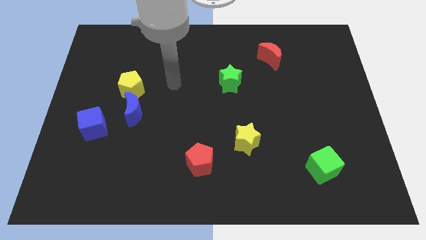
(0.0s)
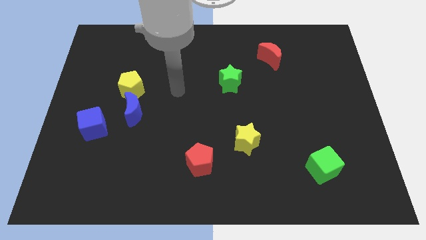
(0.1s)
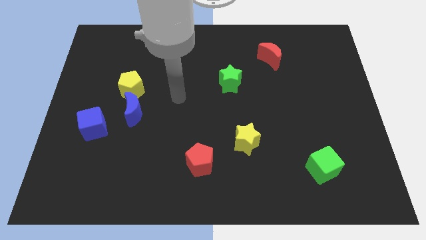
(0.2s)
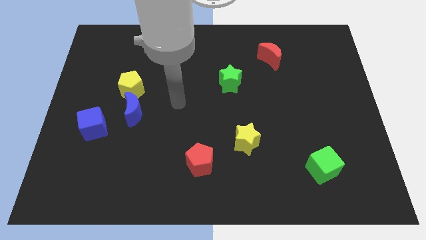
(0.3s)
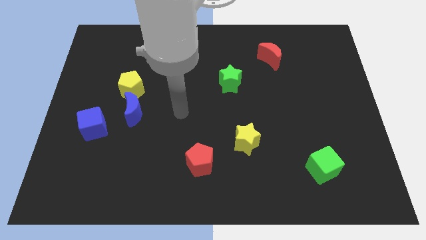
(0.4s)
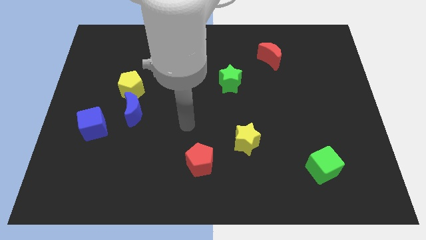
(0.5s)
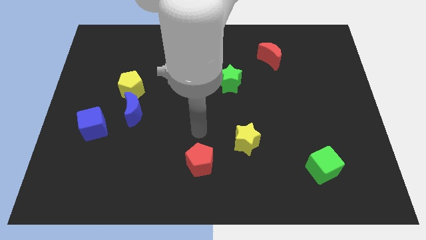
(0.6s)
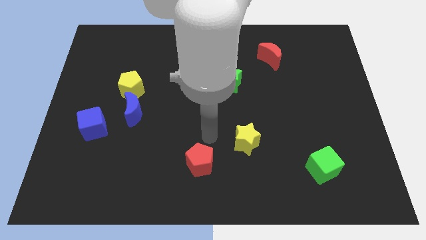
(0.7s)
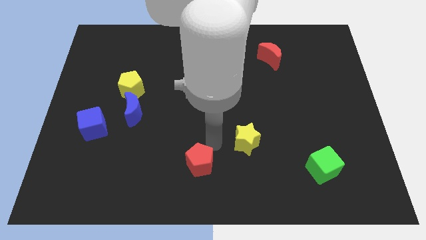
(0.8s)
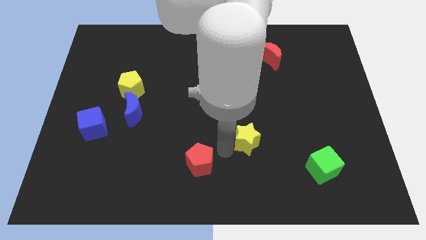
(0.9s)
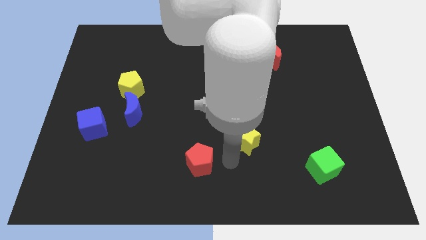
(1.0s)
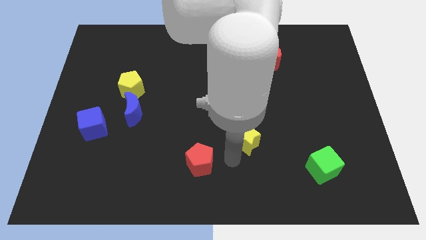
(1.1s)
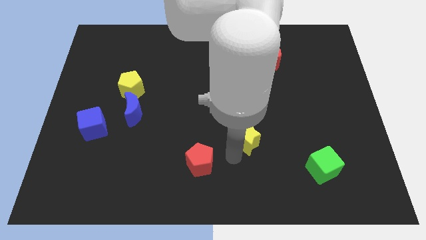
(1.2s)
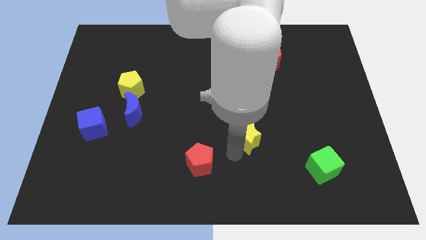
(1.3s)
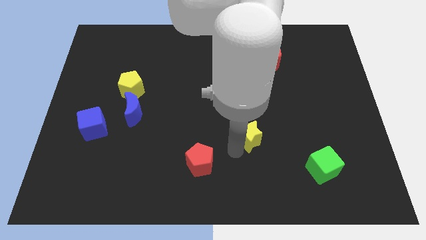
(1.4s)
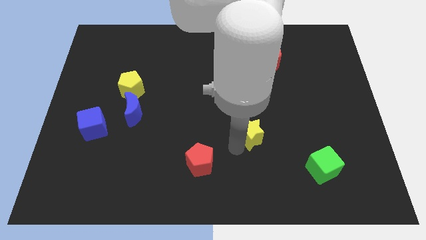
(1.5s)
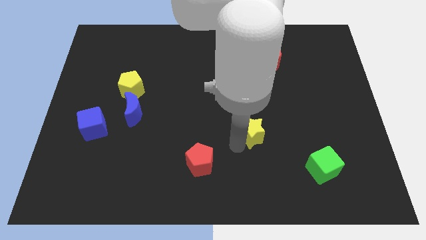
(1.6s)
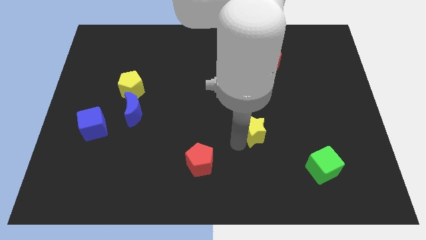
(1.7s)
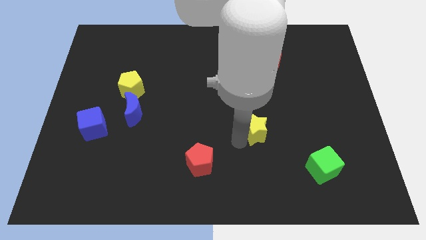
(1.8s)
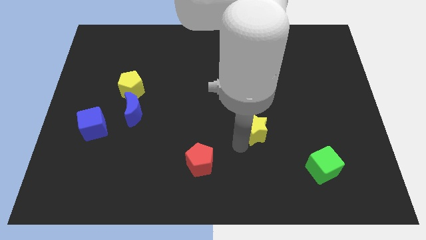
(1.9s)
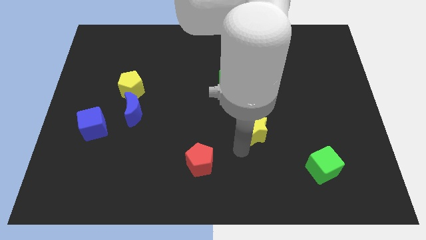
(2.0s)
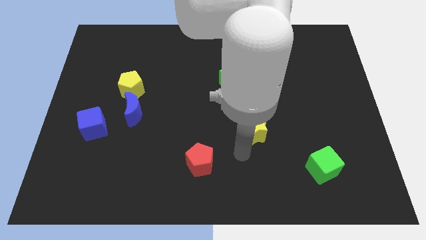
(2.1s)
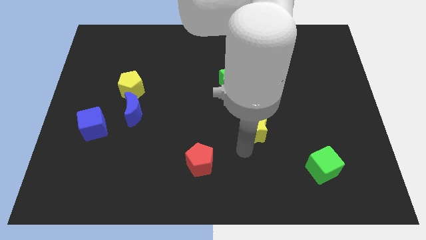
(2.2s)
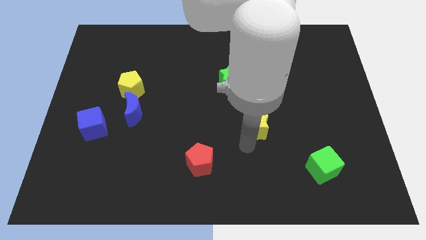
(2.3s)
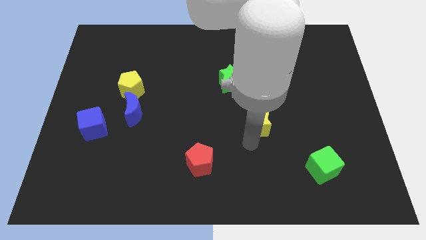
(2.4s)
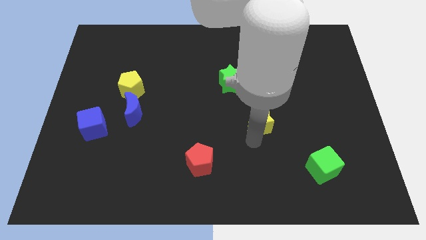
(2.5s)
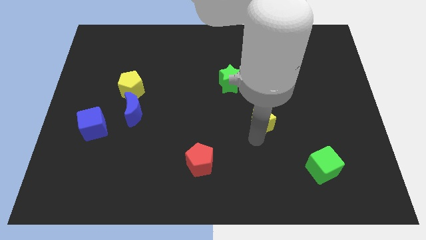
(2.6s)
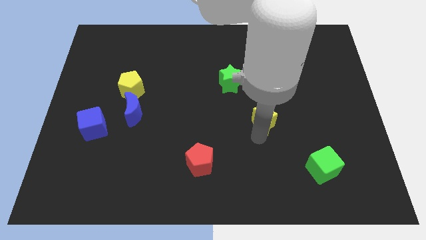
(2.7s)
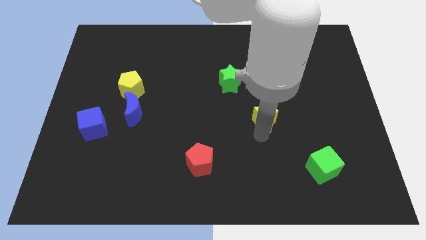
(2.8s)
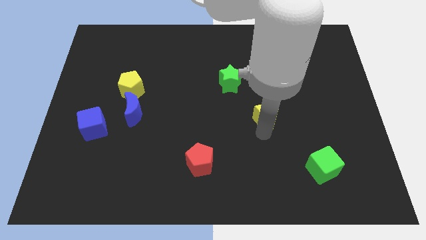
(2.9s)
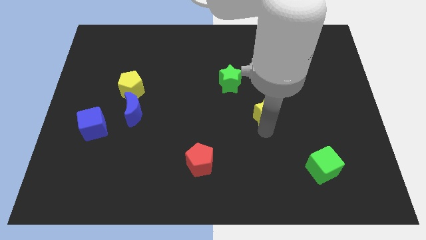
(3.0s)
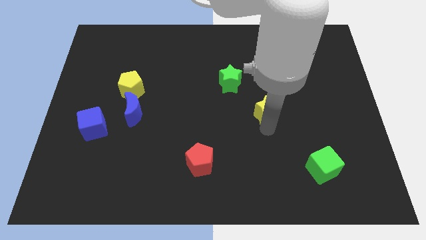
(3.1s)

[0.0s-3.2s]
slide the yellow star up somewhat

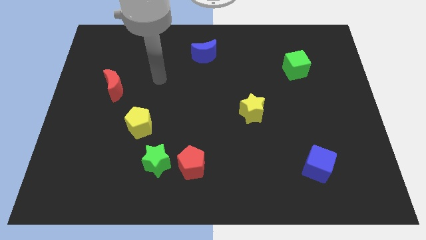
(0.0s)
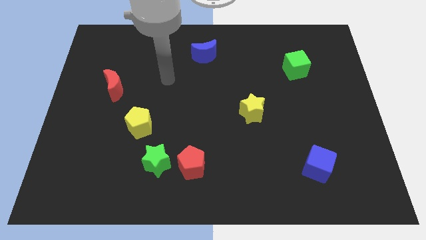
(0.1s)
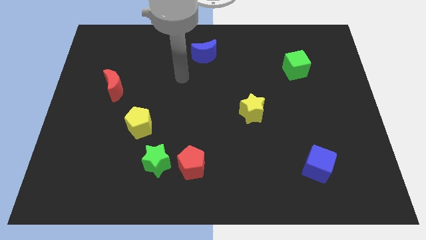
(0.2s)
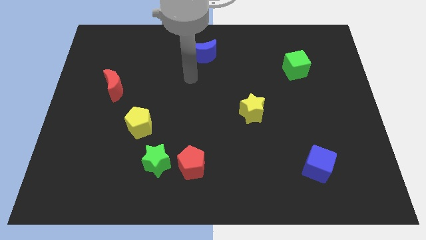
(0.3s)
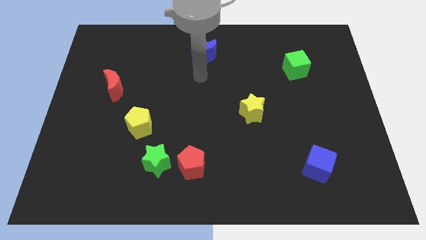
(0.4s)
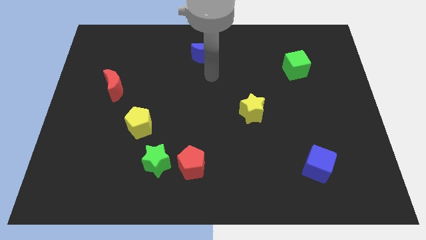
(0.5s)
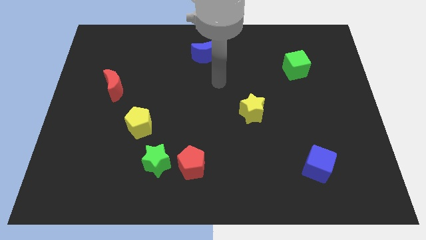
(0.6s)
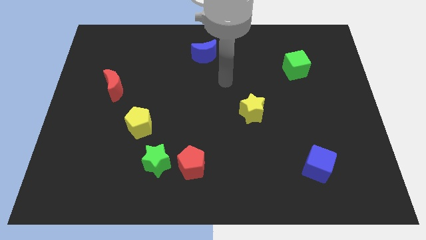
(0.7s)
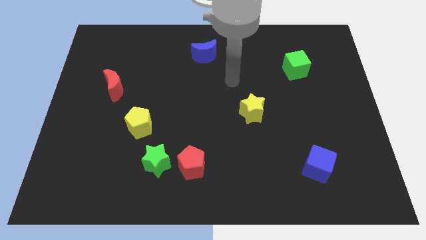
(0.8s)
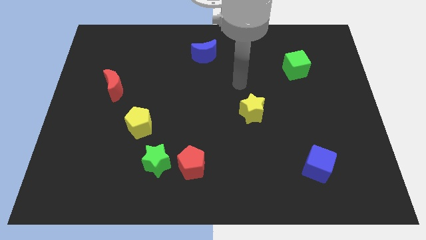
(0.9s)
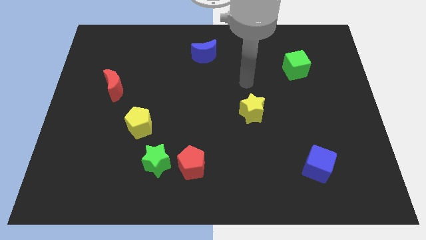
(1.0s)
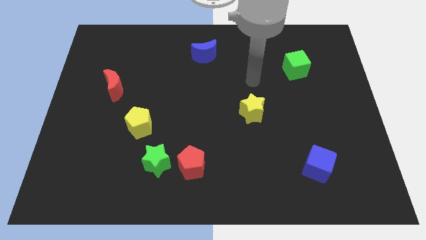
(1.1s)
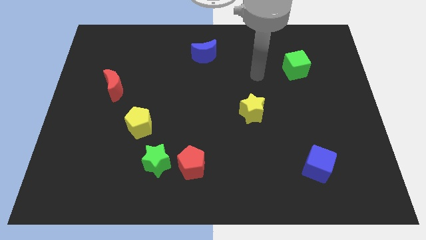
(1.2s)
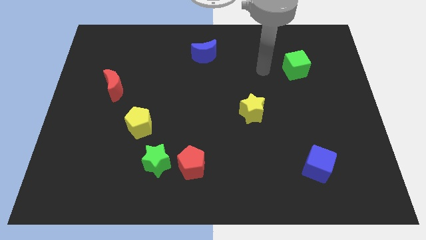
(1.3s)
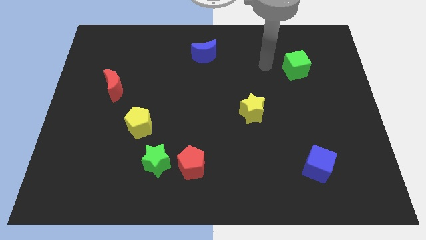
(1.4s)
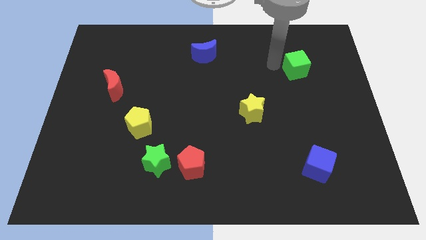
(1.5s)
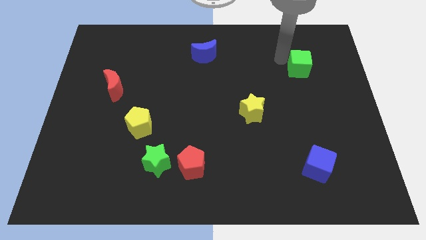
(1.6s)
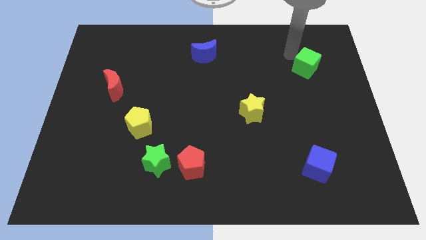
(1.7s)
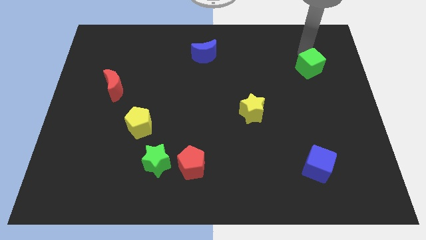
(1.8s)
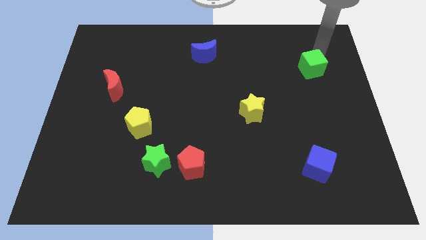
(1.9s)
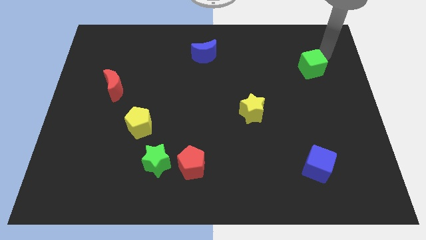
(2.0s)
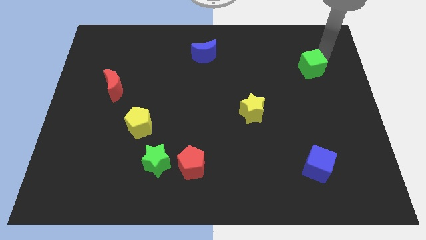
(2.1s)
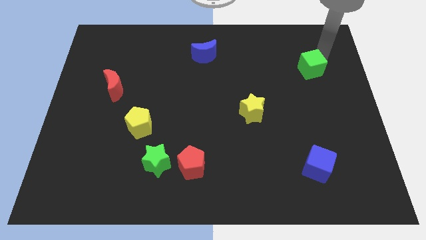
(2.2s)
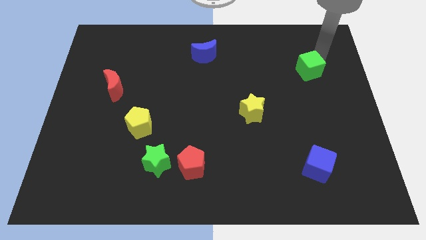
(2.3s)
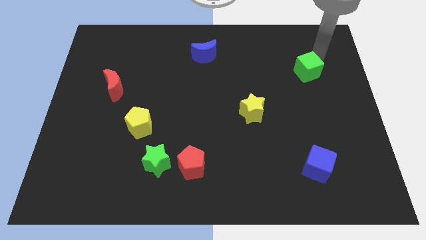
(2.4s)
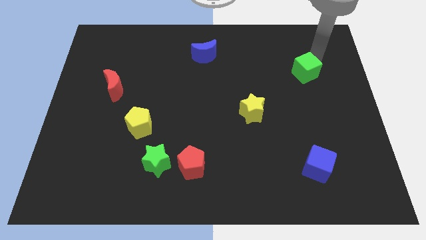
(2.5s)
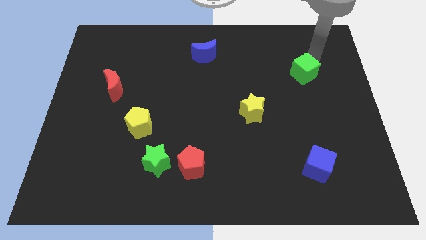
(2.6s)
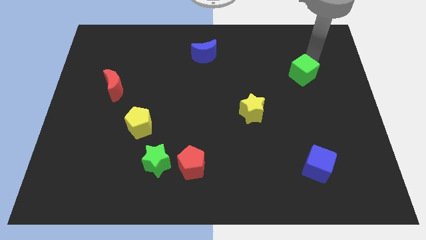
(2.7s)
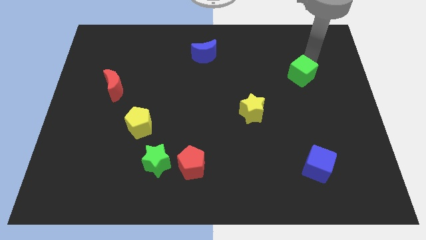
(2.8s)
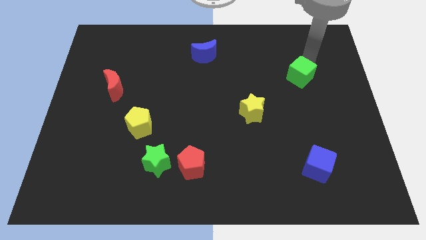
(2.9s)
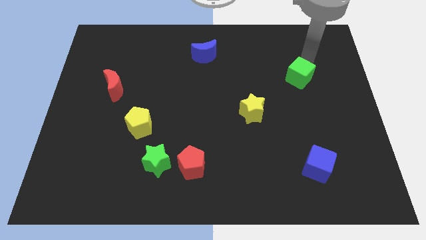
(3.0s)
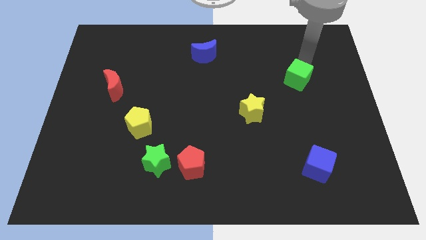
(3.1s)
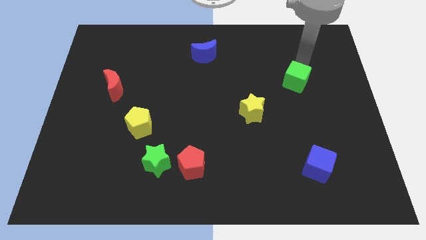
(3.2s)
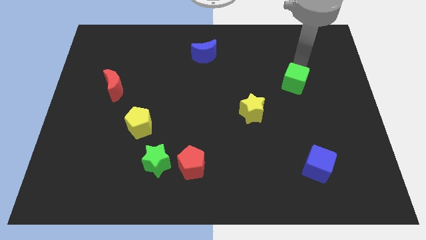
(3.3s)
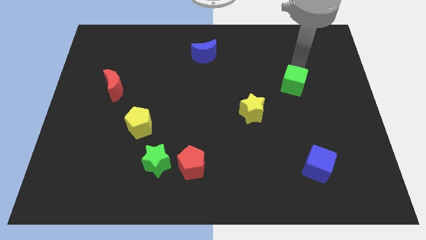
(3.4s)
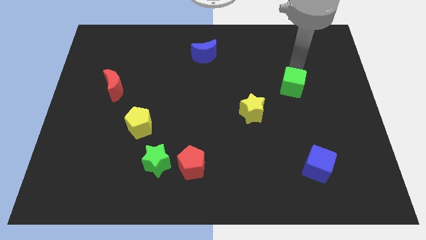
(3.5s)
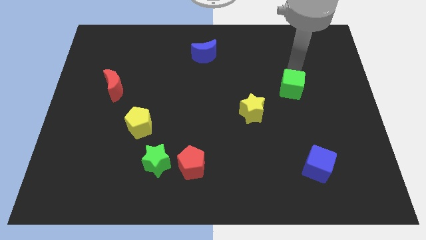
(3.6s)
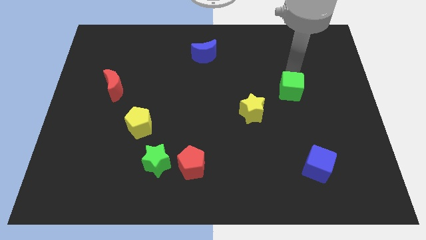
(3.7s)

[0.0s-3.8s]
slightly move the green cube downwards

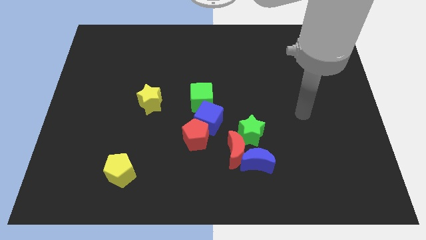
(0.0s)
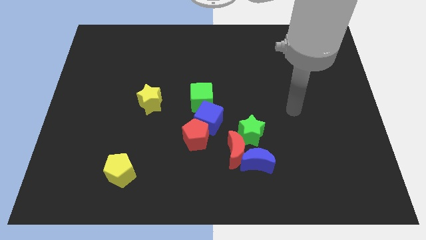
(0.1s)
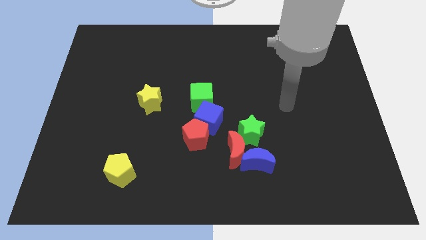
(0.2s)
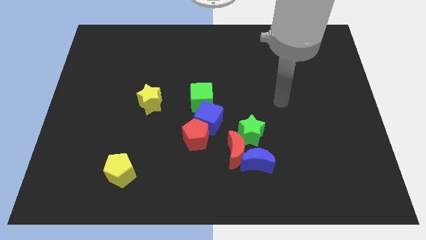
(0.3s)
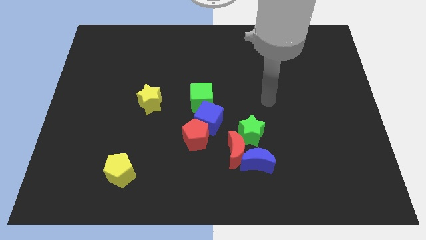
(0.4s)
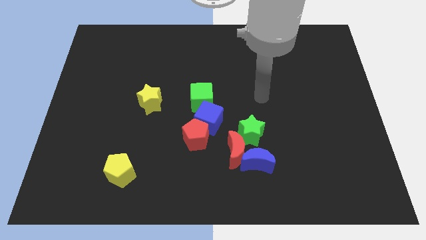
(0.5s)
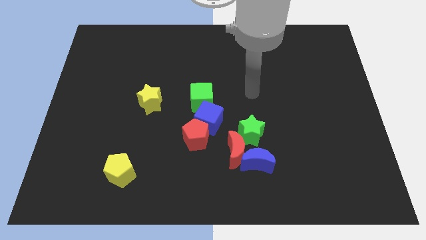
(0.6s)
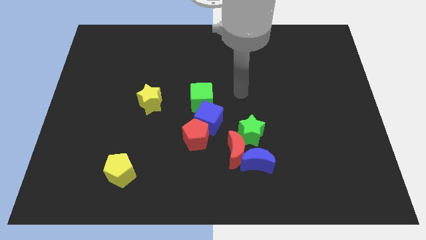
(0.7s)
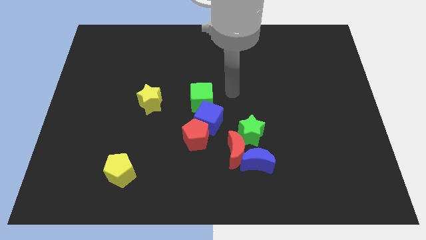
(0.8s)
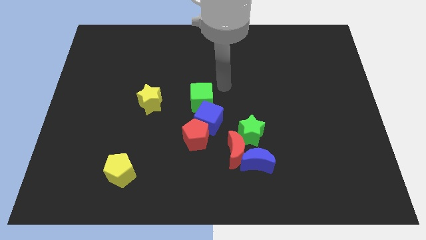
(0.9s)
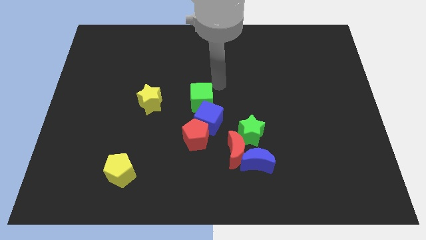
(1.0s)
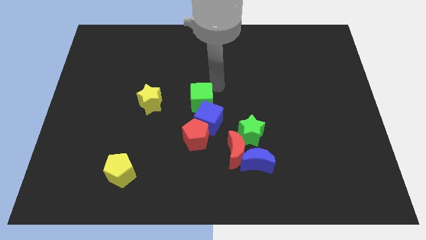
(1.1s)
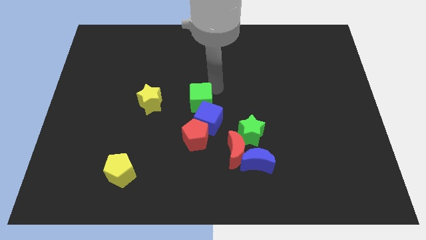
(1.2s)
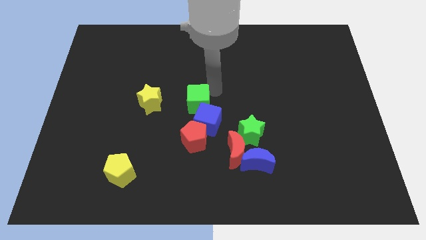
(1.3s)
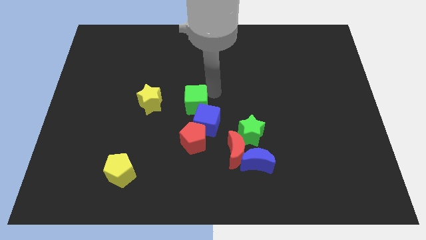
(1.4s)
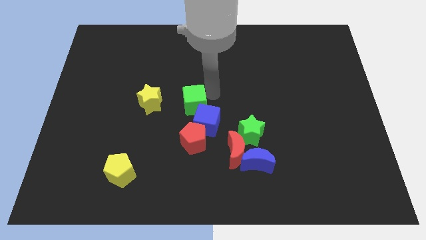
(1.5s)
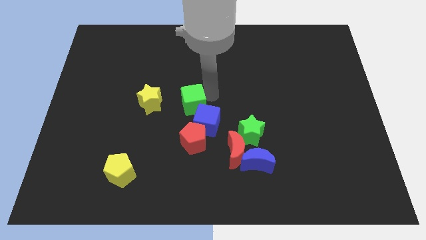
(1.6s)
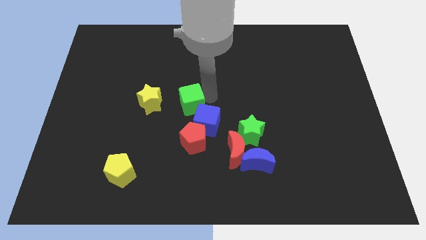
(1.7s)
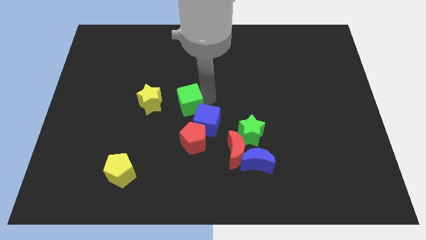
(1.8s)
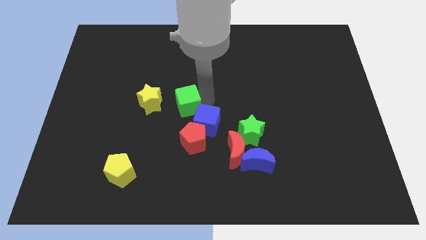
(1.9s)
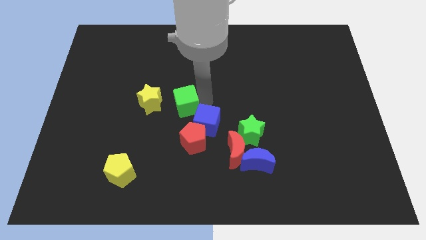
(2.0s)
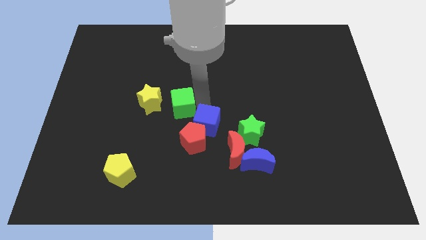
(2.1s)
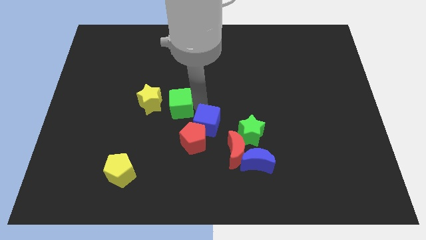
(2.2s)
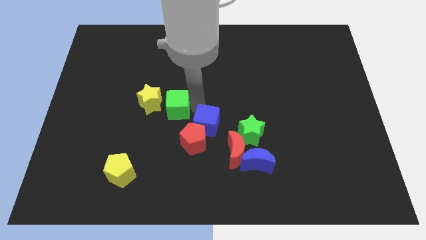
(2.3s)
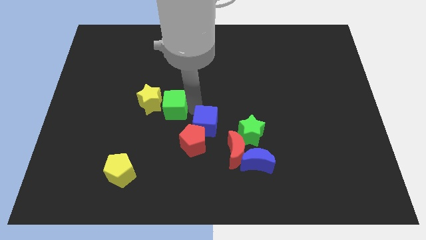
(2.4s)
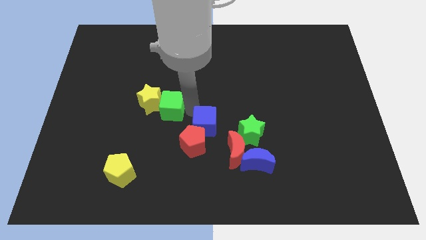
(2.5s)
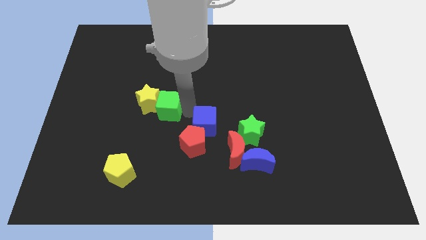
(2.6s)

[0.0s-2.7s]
slide the green cube down and left slightly
